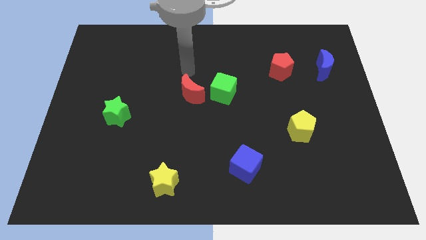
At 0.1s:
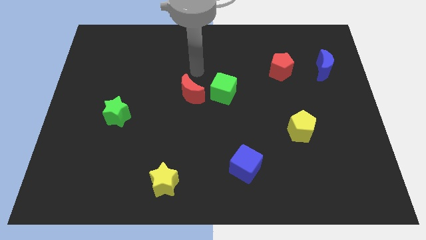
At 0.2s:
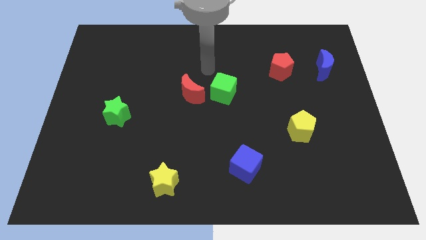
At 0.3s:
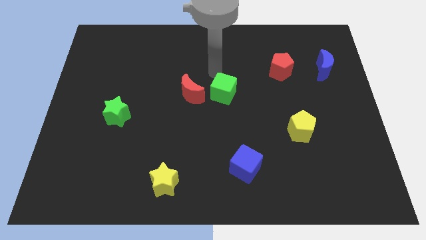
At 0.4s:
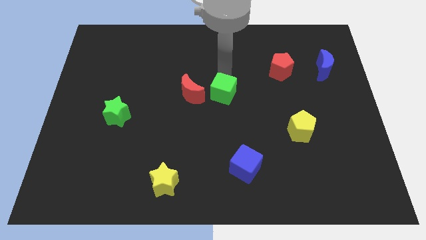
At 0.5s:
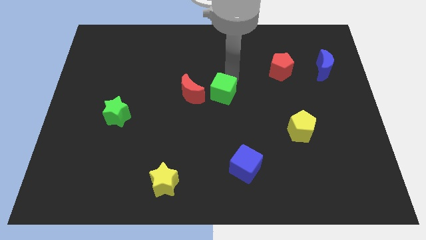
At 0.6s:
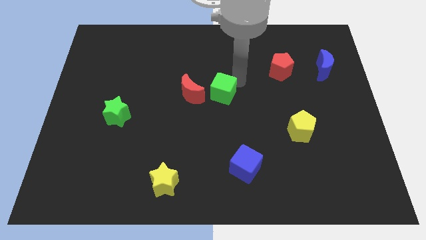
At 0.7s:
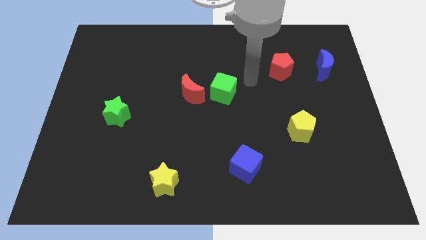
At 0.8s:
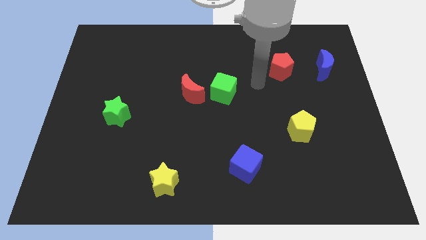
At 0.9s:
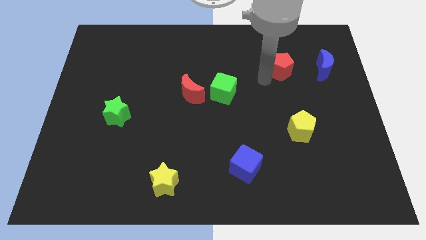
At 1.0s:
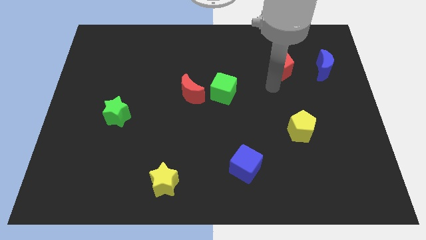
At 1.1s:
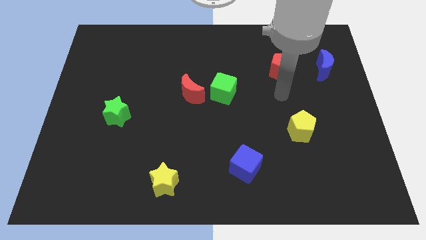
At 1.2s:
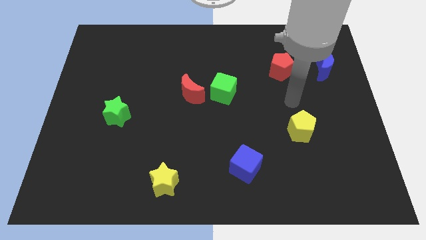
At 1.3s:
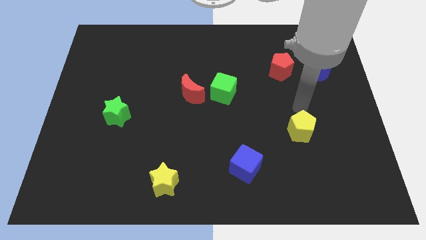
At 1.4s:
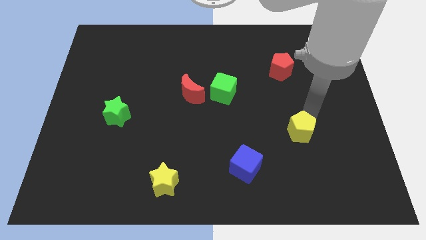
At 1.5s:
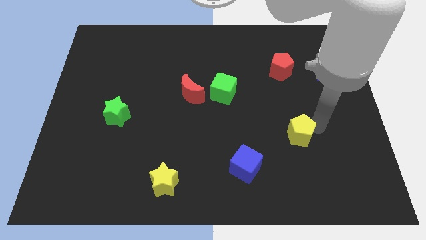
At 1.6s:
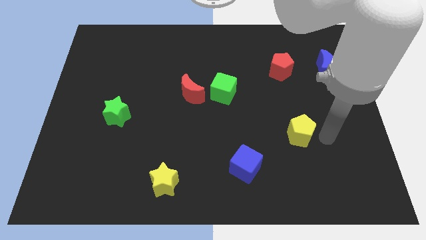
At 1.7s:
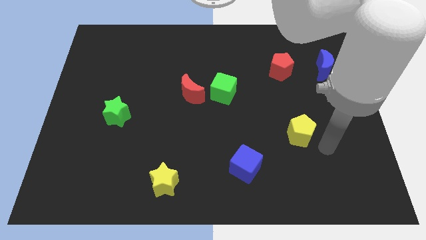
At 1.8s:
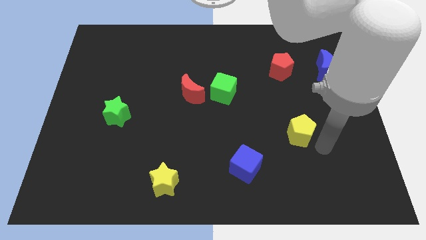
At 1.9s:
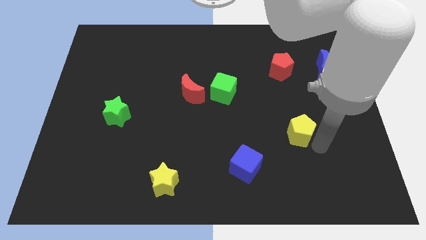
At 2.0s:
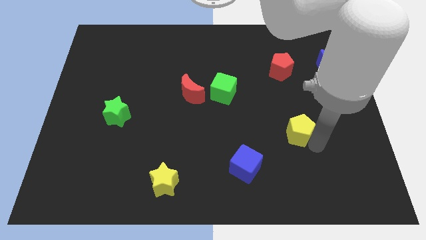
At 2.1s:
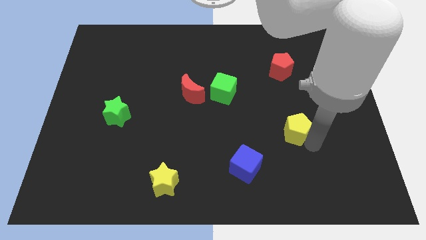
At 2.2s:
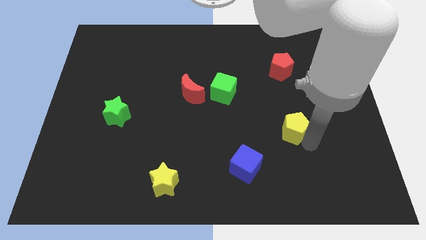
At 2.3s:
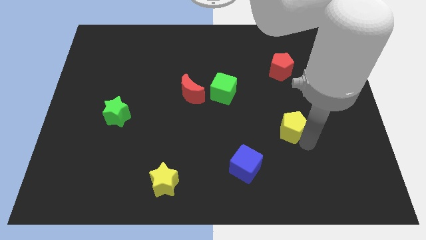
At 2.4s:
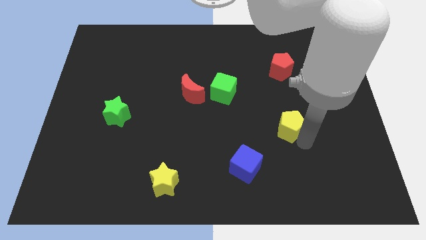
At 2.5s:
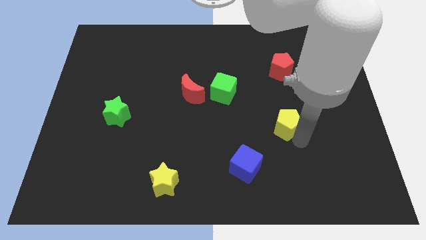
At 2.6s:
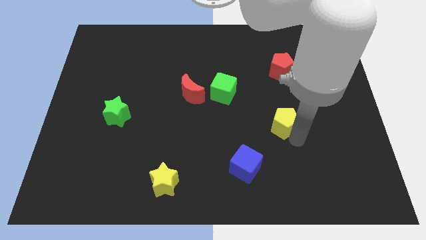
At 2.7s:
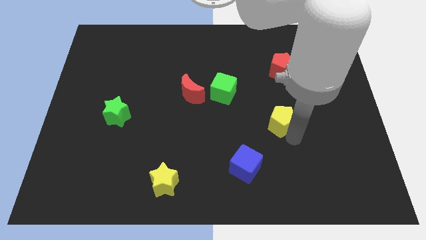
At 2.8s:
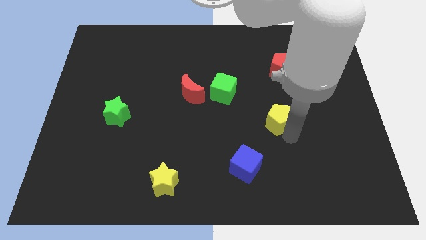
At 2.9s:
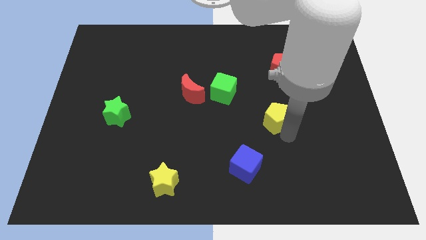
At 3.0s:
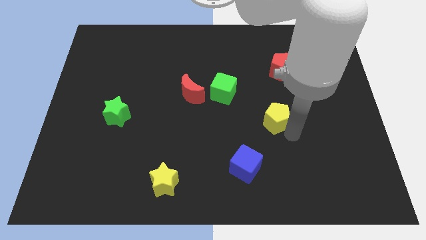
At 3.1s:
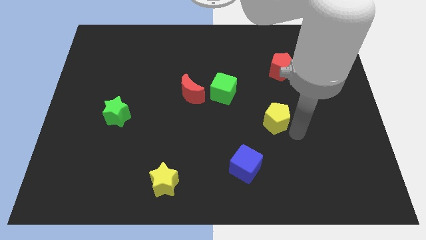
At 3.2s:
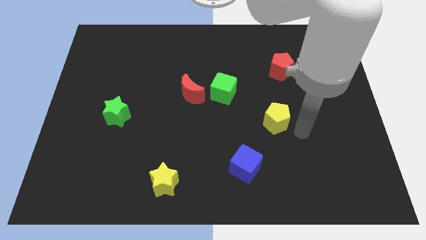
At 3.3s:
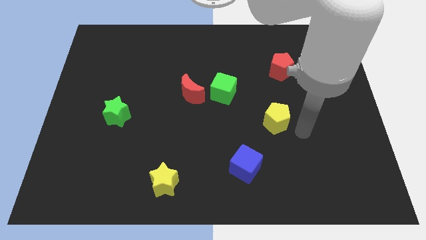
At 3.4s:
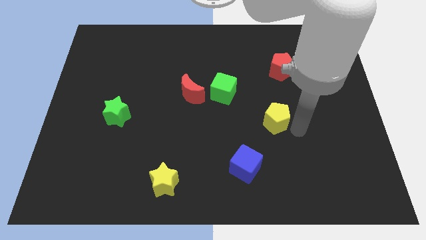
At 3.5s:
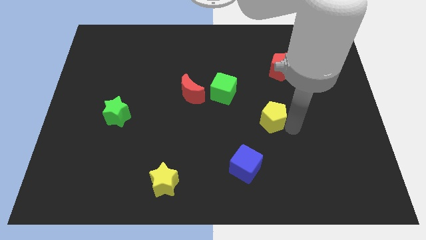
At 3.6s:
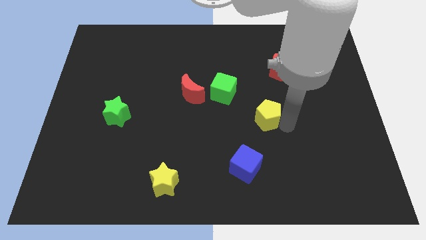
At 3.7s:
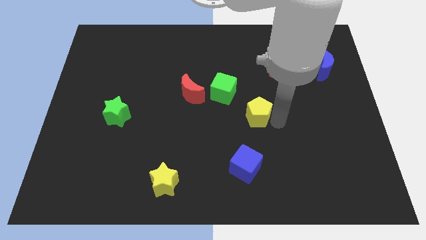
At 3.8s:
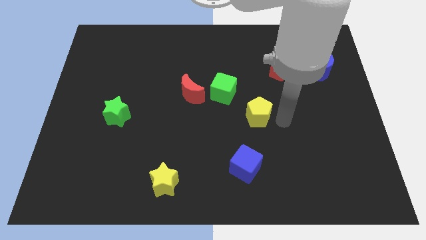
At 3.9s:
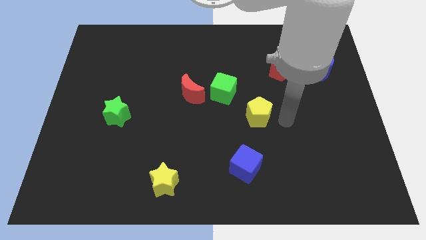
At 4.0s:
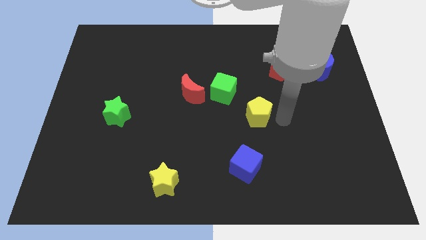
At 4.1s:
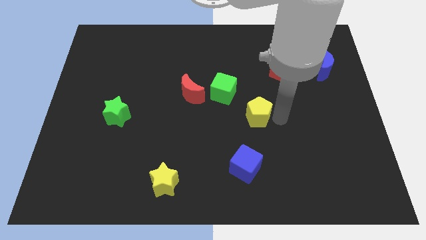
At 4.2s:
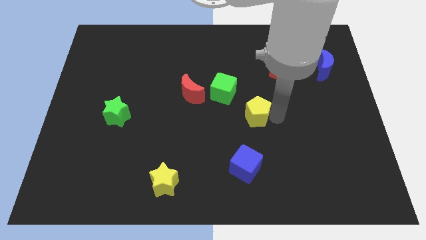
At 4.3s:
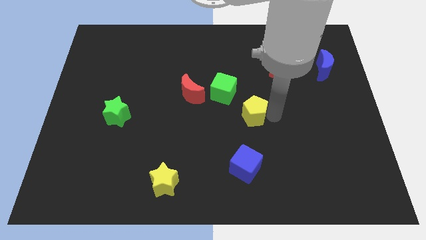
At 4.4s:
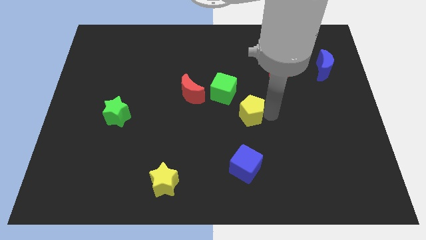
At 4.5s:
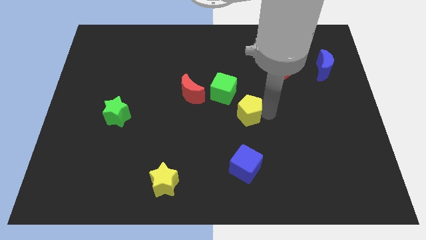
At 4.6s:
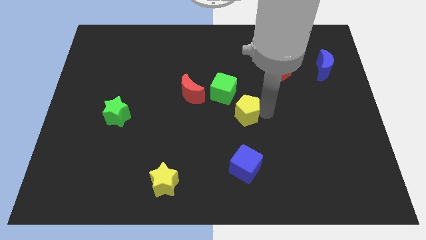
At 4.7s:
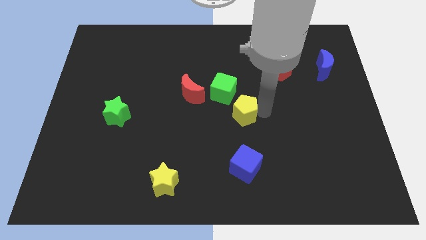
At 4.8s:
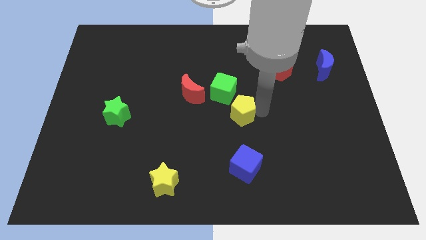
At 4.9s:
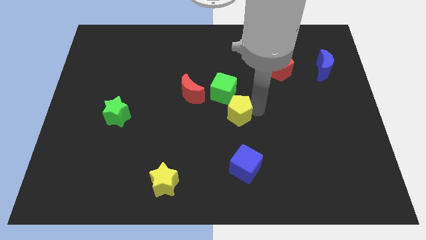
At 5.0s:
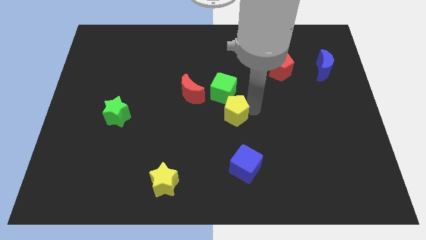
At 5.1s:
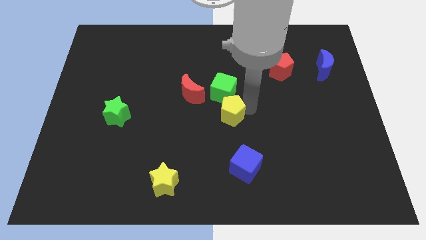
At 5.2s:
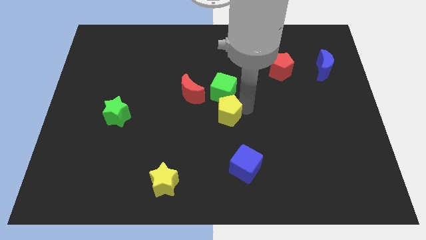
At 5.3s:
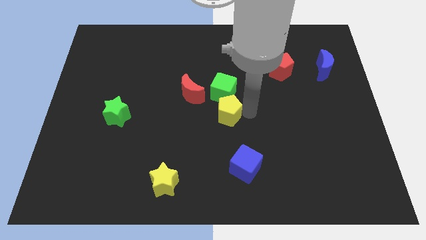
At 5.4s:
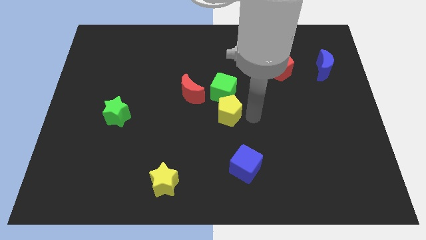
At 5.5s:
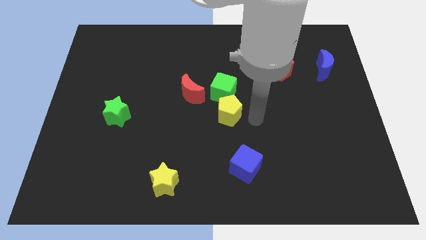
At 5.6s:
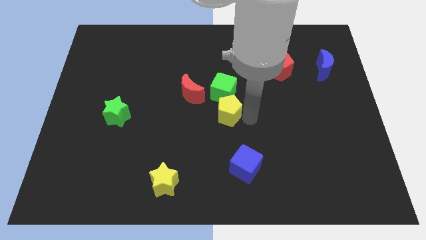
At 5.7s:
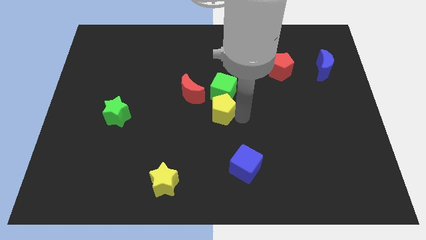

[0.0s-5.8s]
slide the yellow pentagon to the bottom left of the green cube
